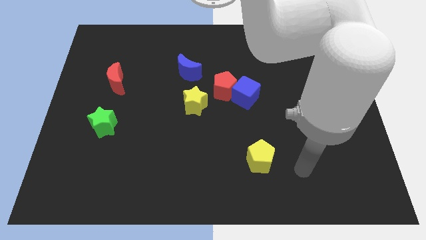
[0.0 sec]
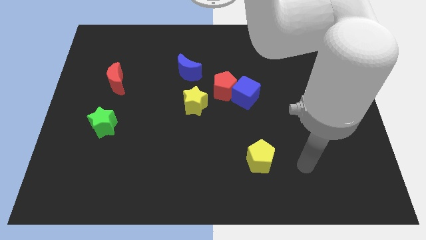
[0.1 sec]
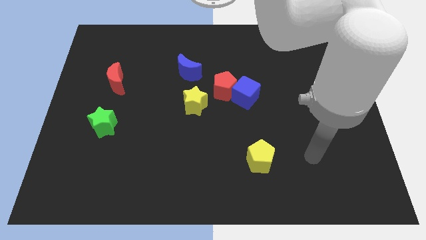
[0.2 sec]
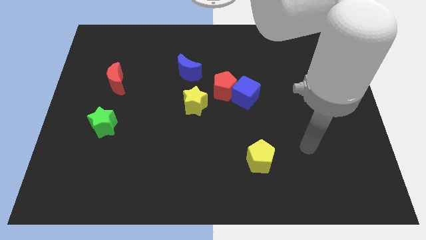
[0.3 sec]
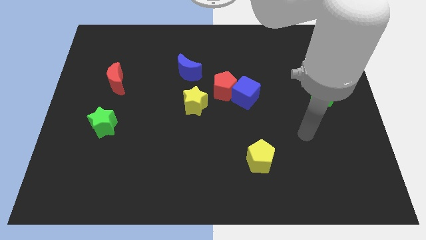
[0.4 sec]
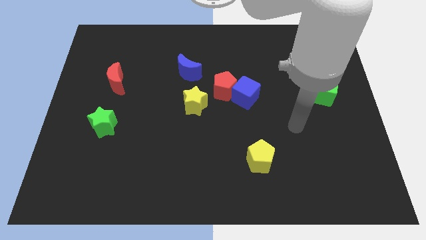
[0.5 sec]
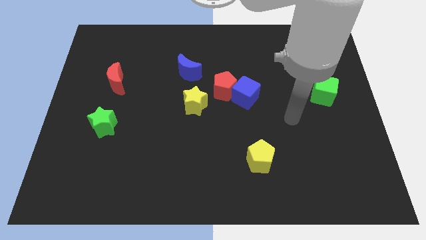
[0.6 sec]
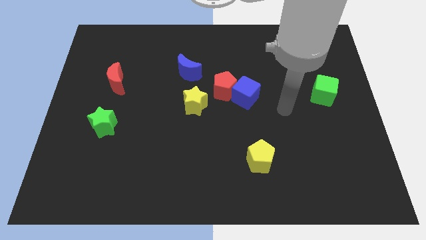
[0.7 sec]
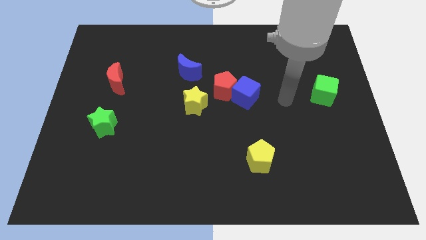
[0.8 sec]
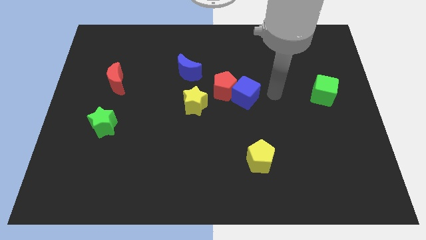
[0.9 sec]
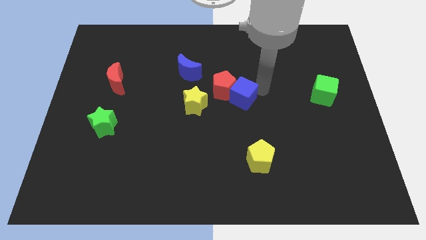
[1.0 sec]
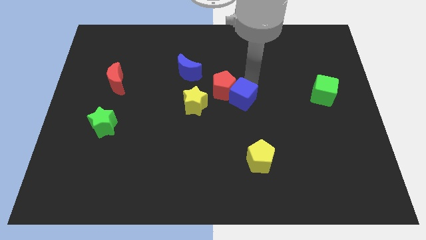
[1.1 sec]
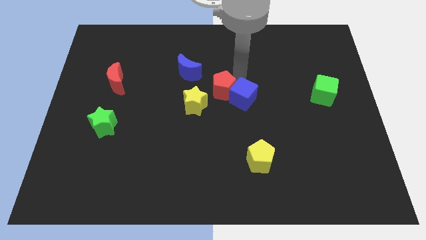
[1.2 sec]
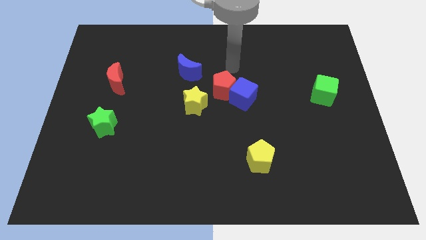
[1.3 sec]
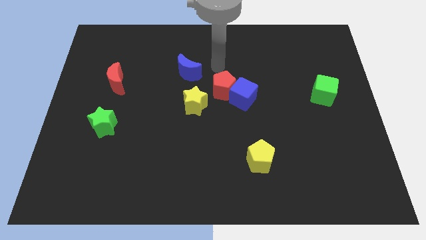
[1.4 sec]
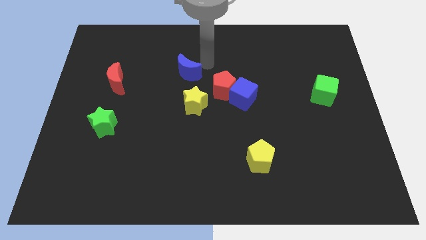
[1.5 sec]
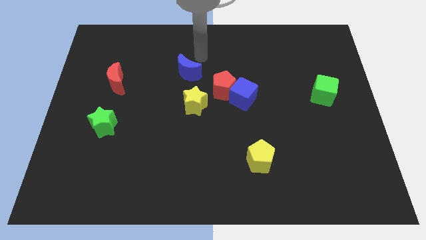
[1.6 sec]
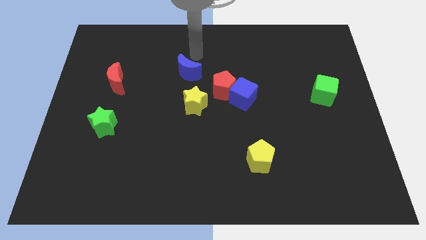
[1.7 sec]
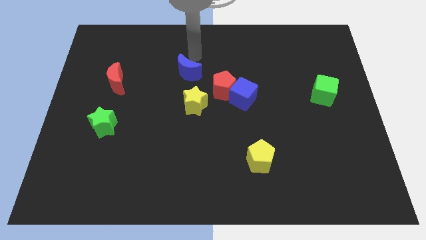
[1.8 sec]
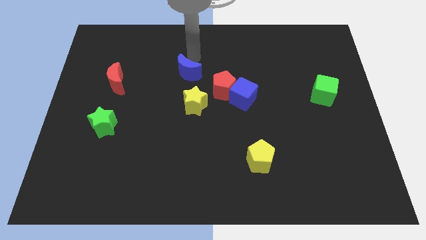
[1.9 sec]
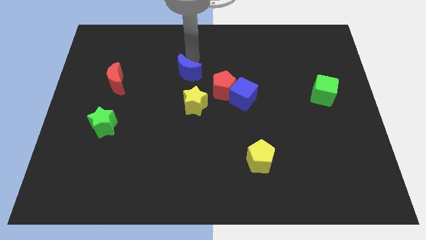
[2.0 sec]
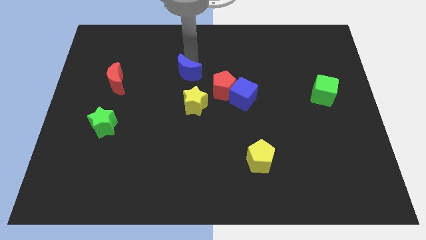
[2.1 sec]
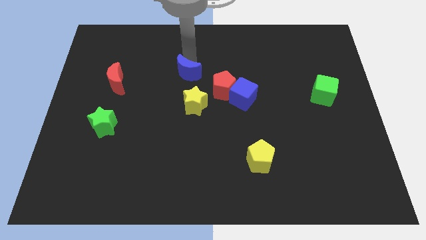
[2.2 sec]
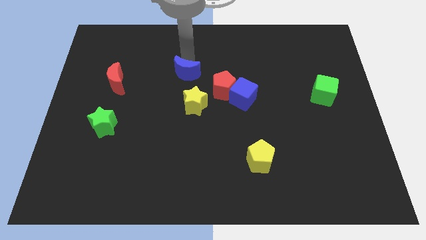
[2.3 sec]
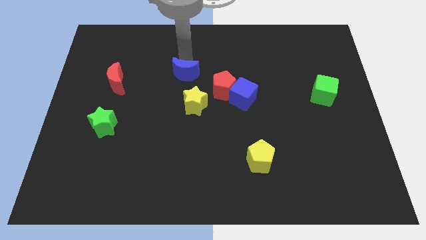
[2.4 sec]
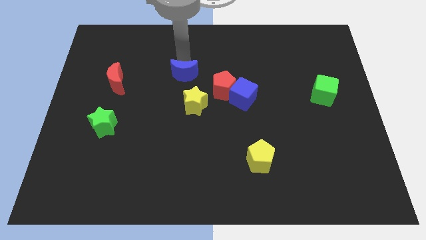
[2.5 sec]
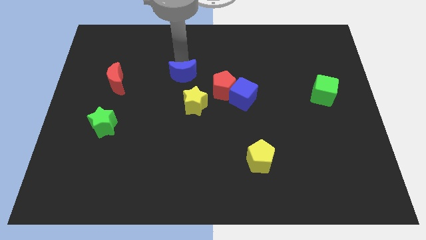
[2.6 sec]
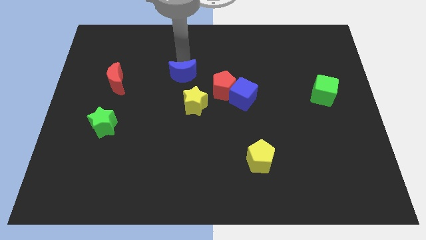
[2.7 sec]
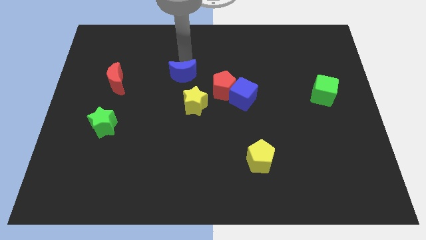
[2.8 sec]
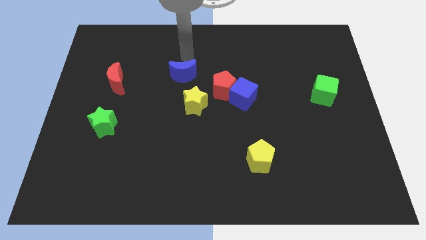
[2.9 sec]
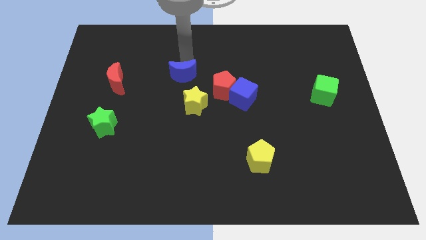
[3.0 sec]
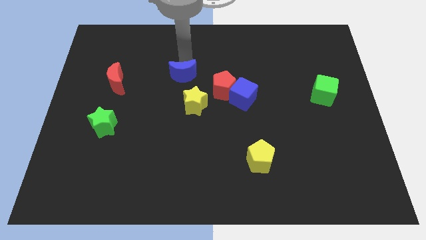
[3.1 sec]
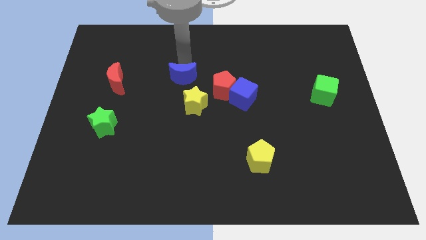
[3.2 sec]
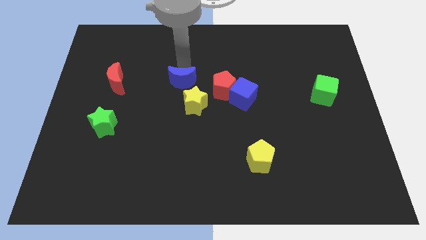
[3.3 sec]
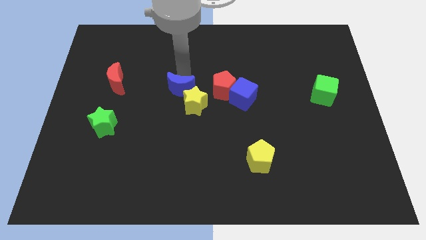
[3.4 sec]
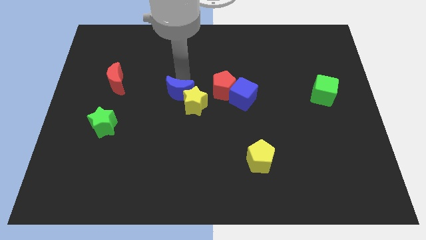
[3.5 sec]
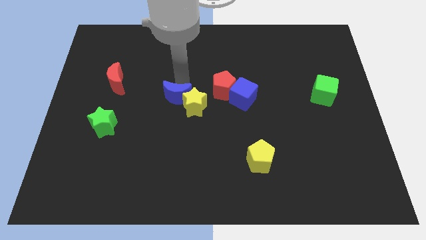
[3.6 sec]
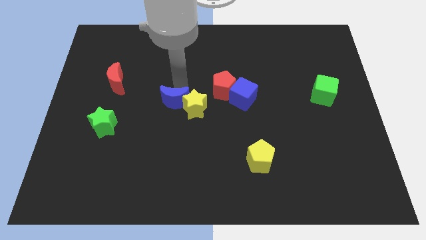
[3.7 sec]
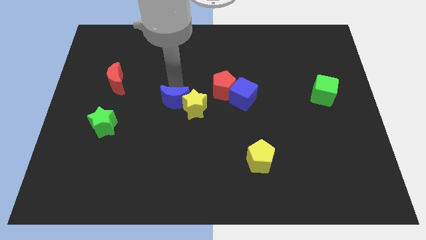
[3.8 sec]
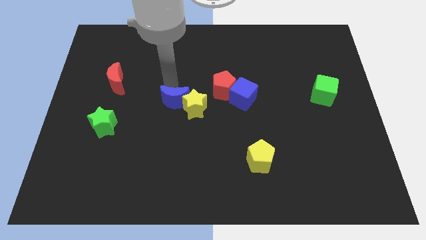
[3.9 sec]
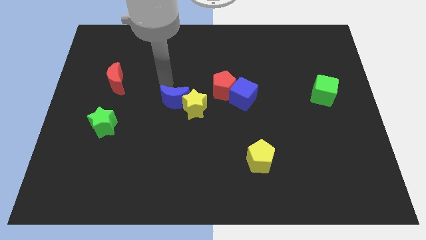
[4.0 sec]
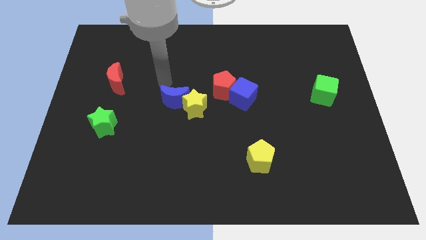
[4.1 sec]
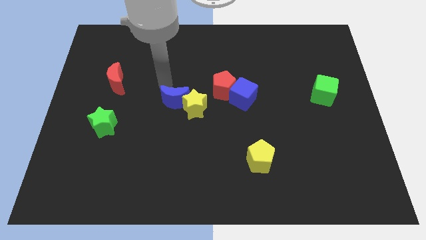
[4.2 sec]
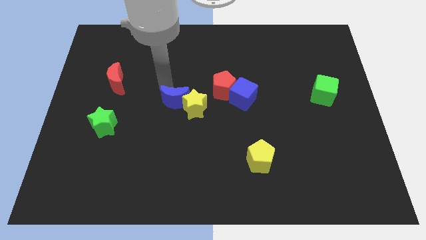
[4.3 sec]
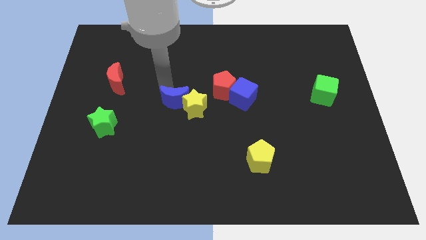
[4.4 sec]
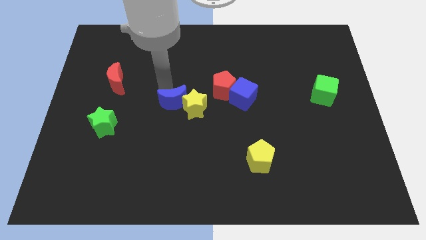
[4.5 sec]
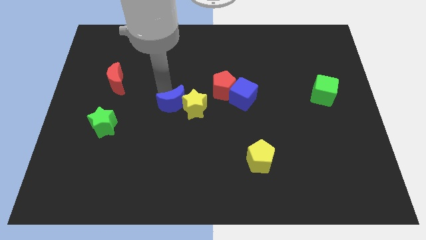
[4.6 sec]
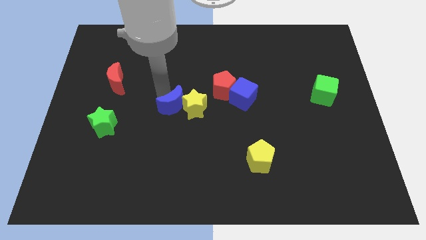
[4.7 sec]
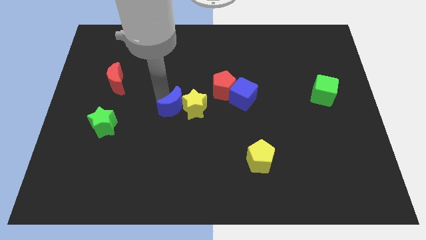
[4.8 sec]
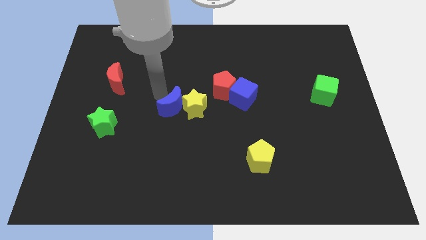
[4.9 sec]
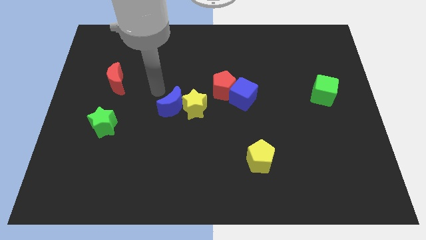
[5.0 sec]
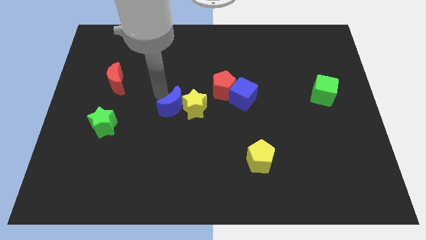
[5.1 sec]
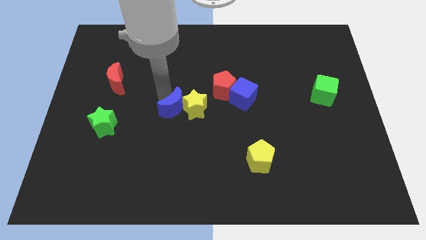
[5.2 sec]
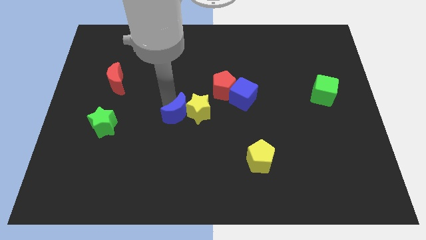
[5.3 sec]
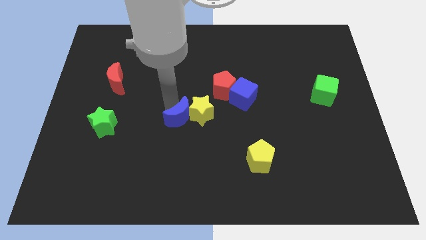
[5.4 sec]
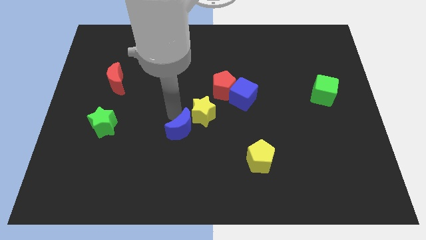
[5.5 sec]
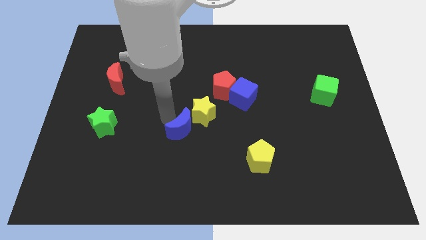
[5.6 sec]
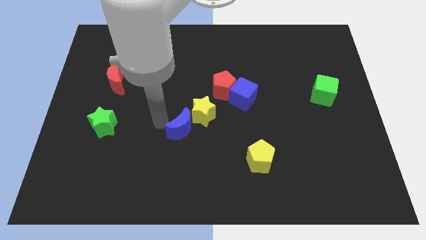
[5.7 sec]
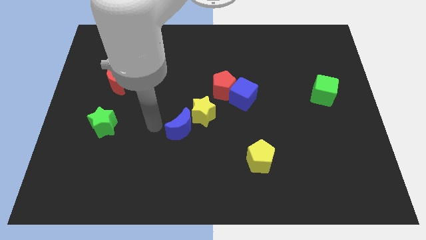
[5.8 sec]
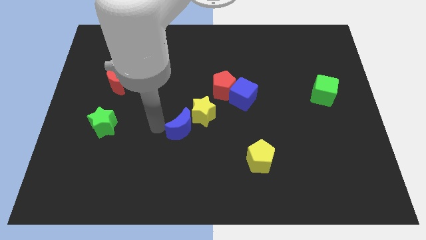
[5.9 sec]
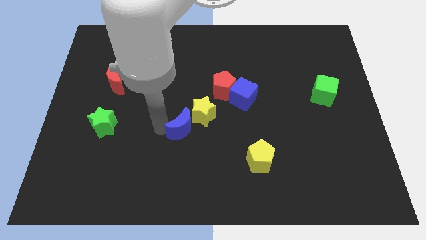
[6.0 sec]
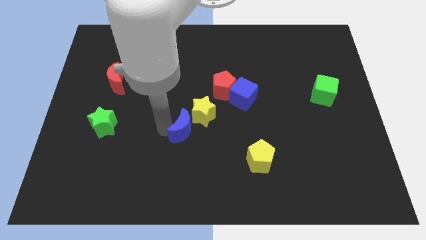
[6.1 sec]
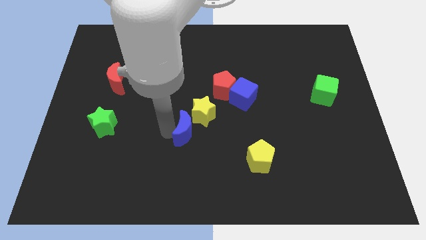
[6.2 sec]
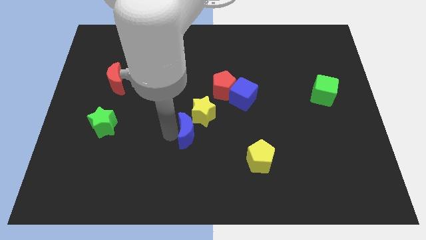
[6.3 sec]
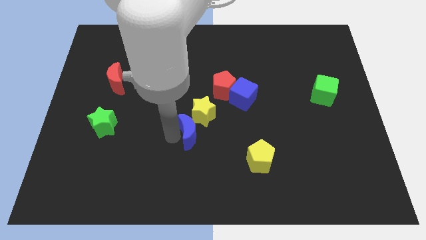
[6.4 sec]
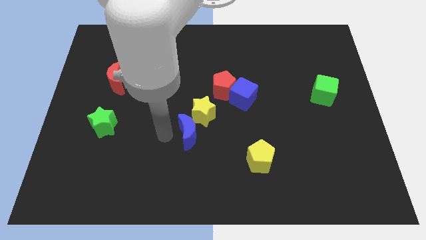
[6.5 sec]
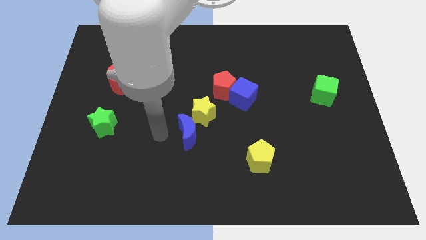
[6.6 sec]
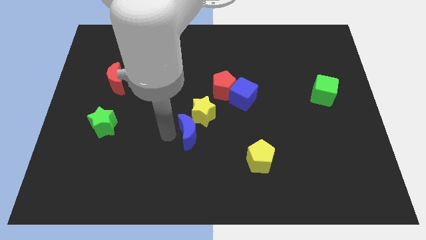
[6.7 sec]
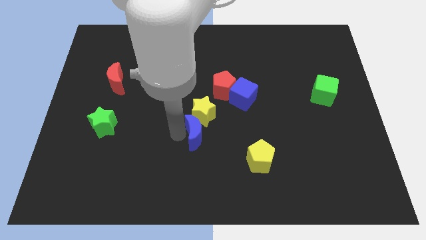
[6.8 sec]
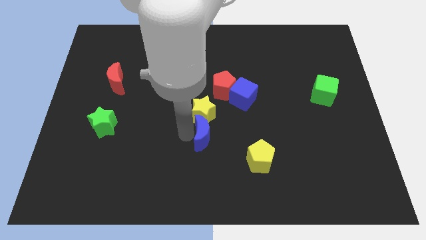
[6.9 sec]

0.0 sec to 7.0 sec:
move the blue moon to the bottom right of the yellow star

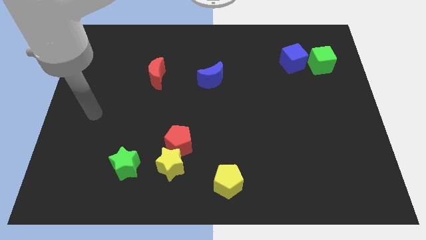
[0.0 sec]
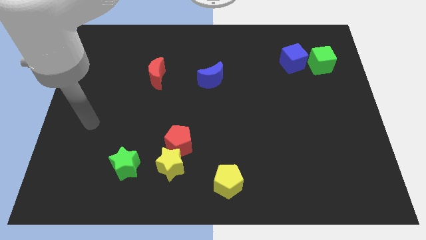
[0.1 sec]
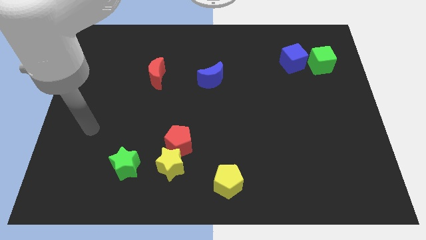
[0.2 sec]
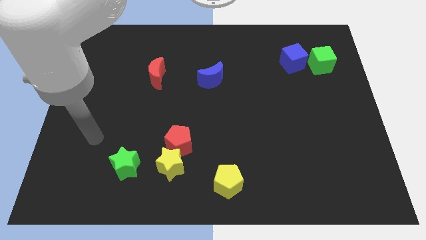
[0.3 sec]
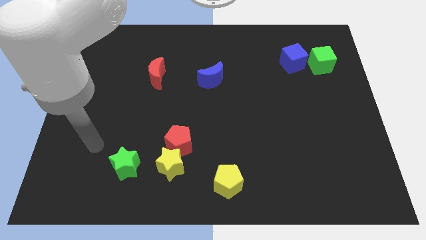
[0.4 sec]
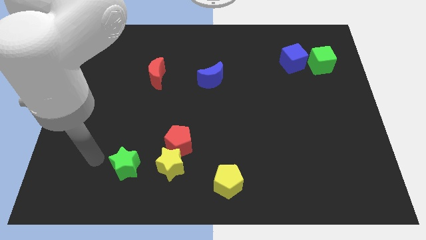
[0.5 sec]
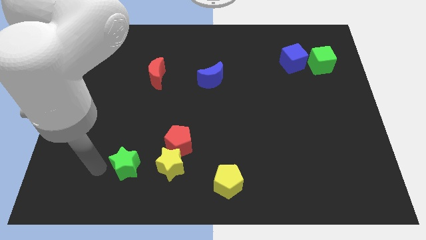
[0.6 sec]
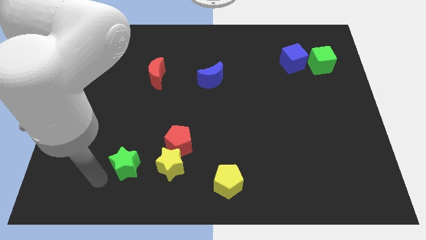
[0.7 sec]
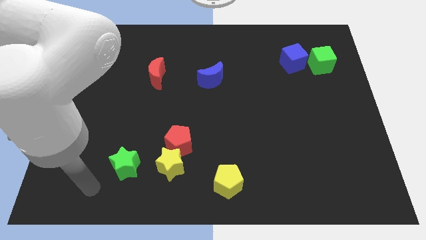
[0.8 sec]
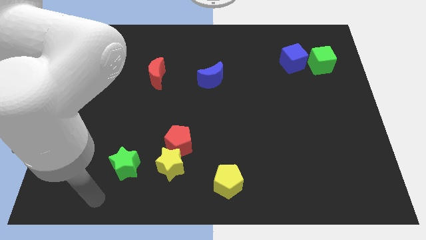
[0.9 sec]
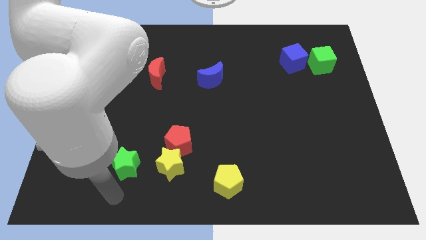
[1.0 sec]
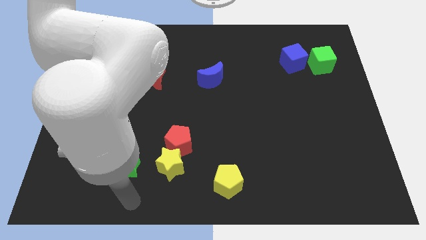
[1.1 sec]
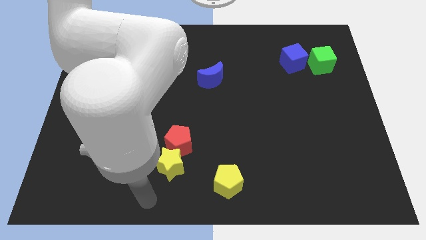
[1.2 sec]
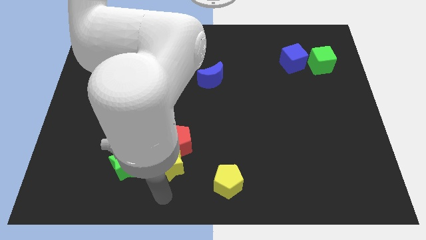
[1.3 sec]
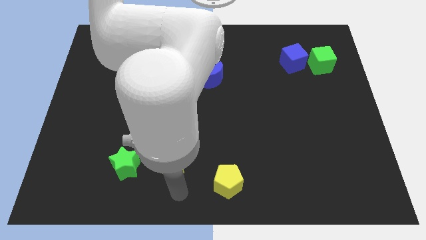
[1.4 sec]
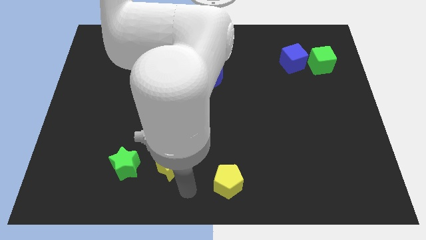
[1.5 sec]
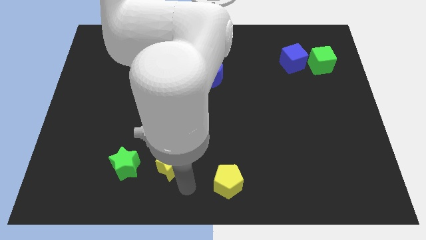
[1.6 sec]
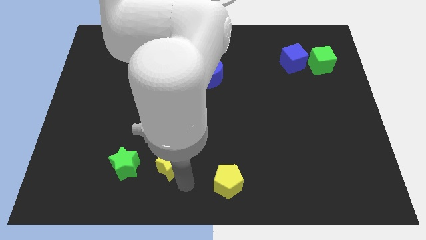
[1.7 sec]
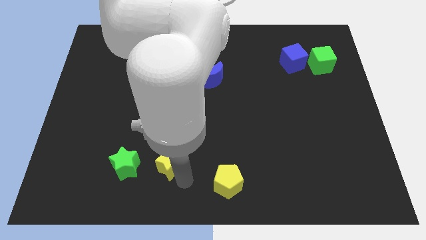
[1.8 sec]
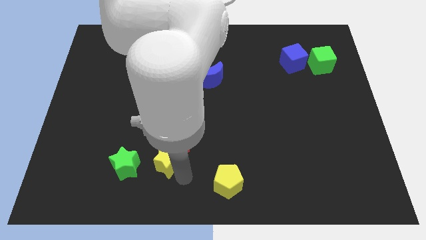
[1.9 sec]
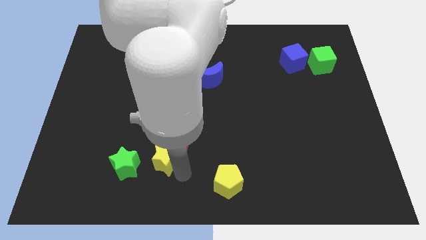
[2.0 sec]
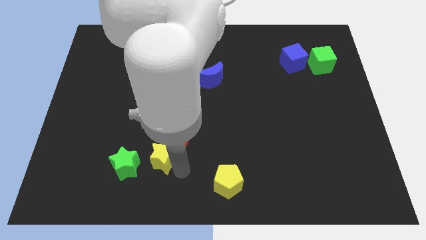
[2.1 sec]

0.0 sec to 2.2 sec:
push the yellow star to the top right side of the green star
